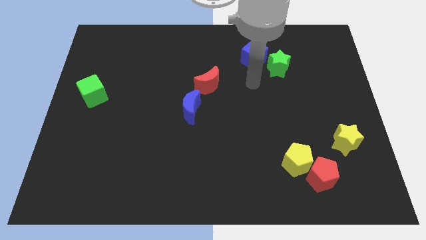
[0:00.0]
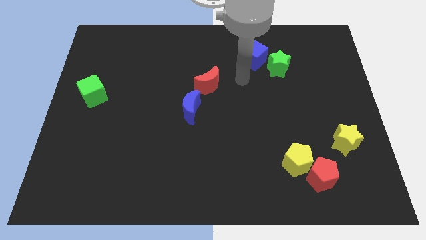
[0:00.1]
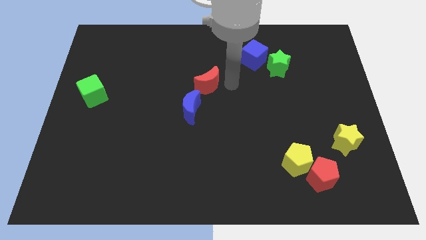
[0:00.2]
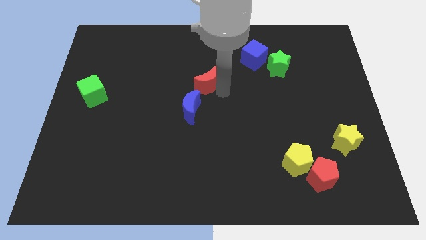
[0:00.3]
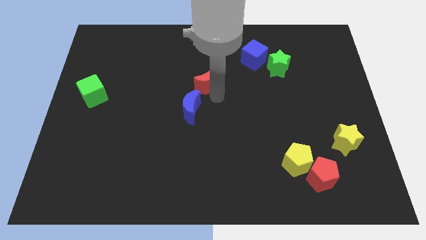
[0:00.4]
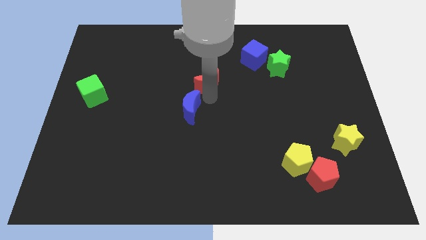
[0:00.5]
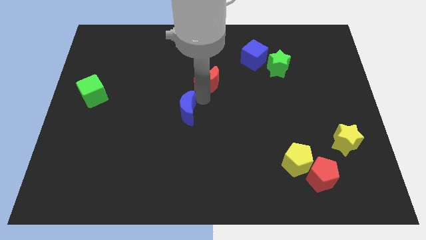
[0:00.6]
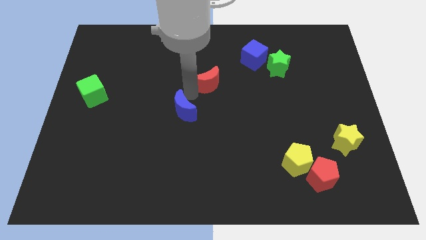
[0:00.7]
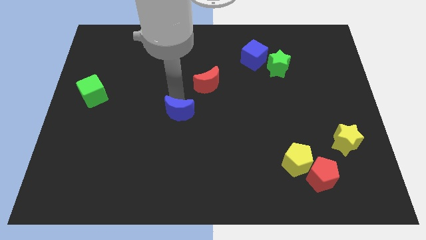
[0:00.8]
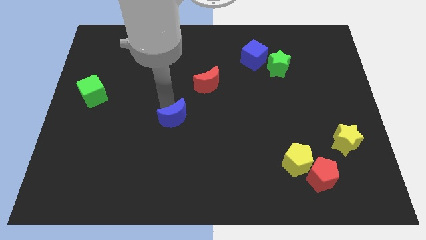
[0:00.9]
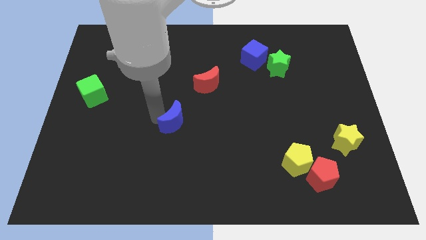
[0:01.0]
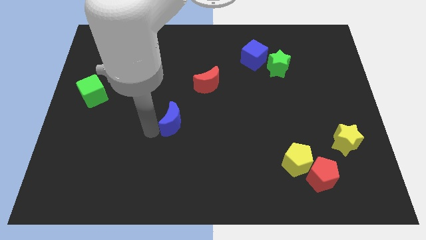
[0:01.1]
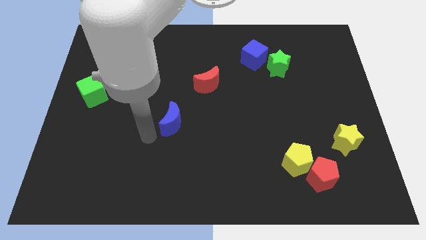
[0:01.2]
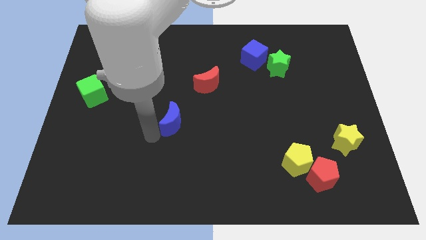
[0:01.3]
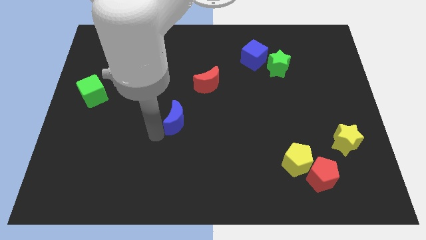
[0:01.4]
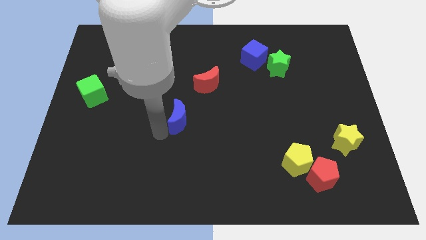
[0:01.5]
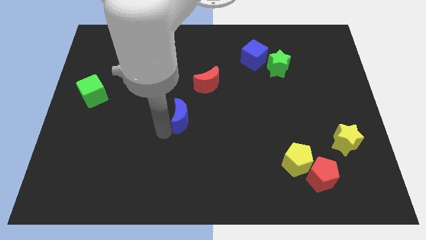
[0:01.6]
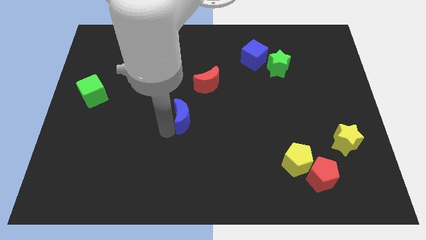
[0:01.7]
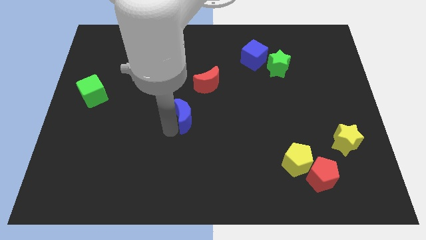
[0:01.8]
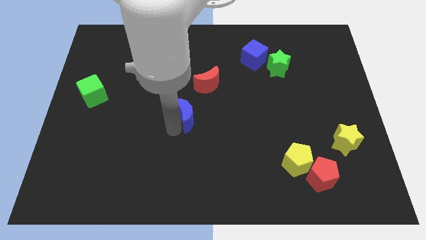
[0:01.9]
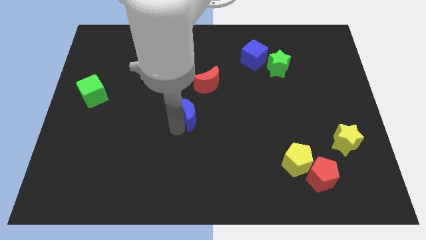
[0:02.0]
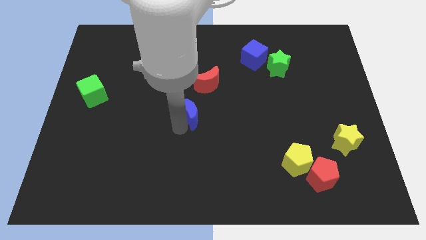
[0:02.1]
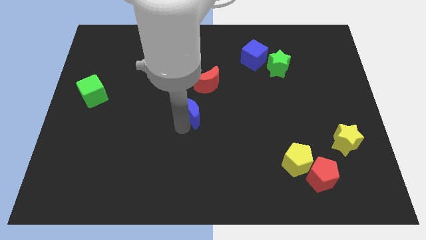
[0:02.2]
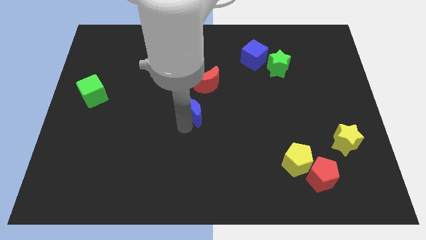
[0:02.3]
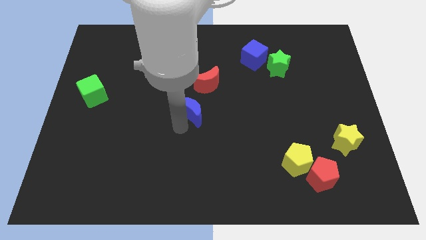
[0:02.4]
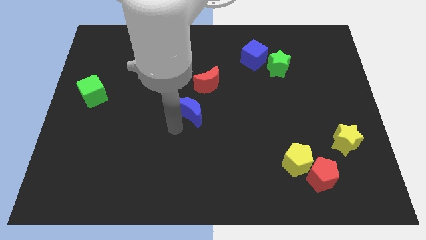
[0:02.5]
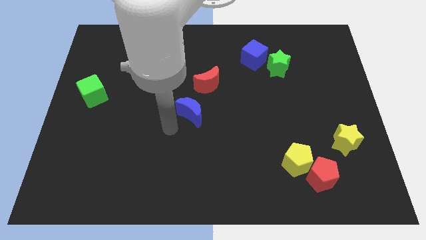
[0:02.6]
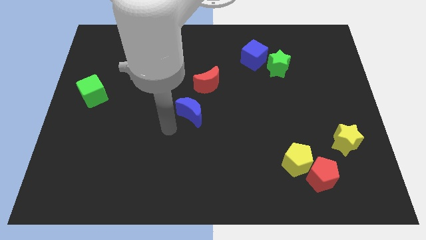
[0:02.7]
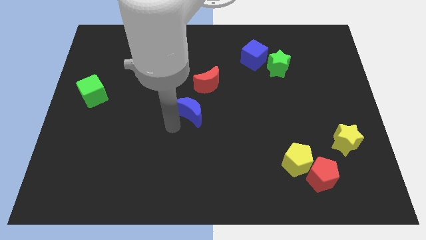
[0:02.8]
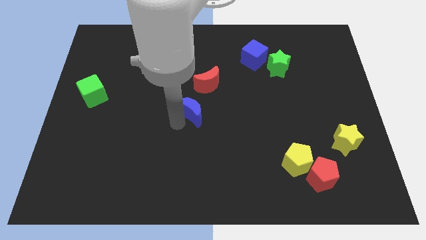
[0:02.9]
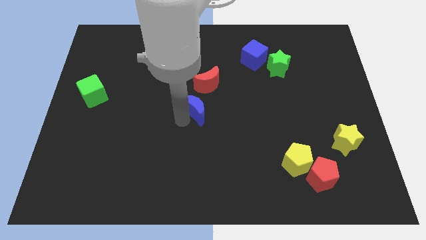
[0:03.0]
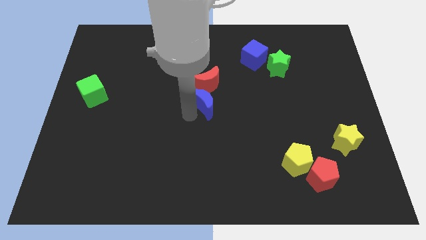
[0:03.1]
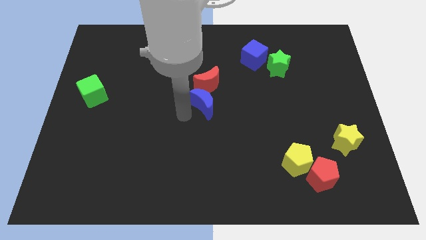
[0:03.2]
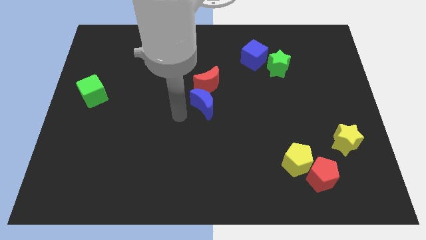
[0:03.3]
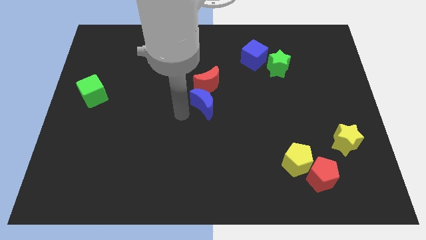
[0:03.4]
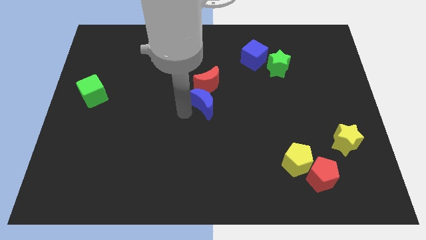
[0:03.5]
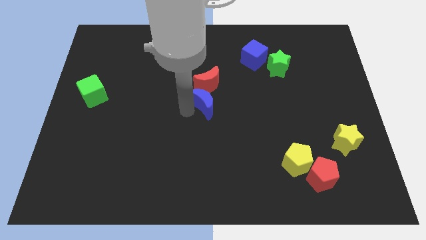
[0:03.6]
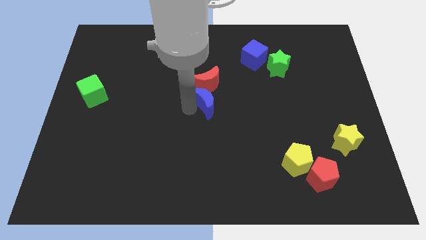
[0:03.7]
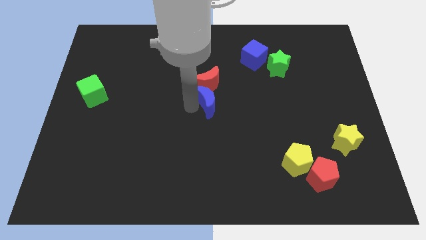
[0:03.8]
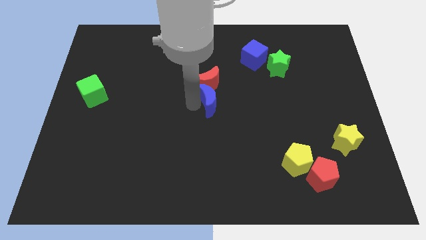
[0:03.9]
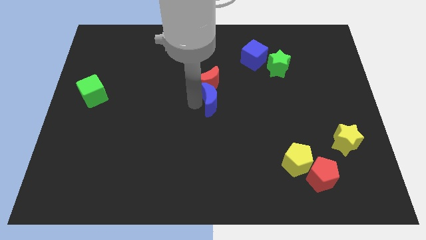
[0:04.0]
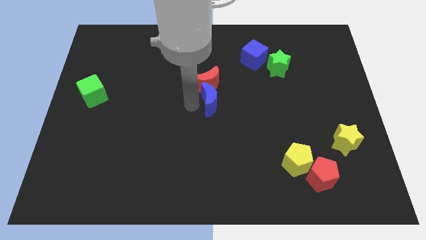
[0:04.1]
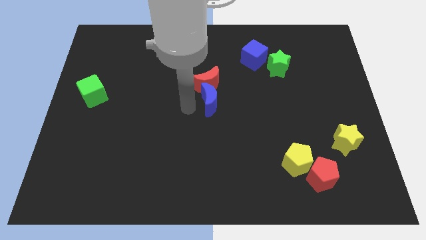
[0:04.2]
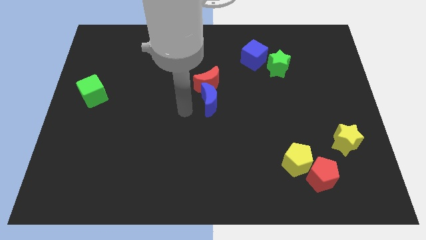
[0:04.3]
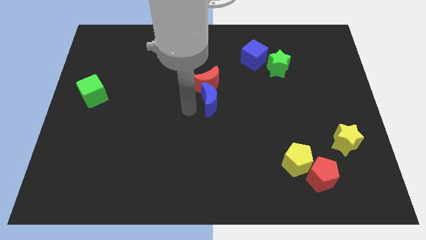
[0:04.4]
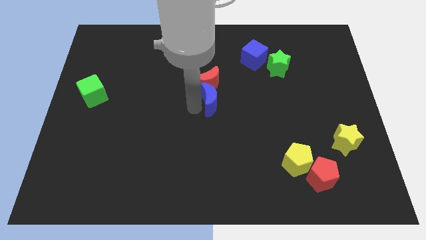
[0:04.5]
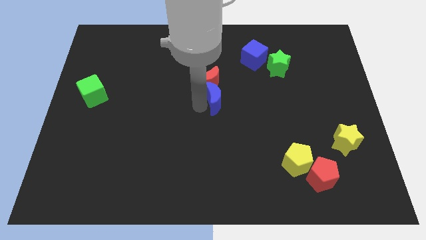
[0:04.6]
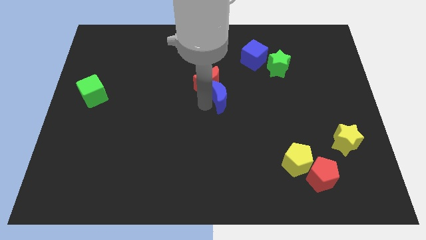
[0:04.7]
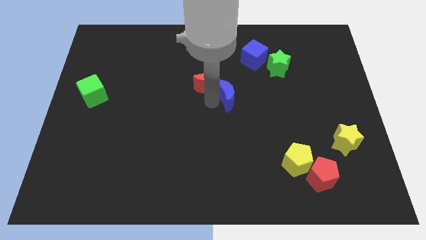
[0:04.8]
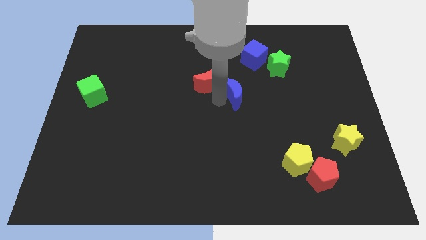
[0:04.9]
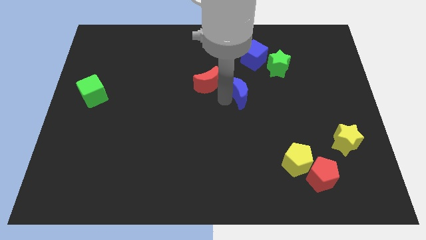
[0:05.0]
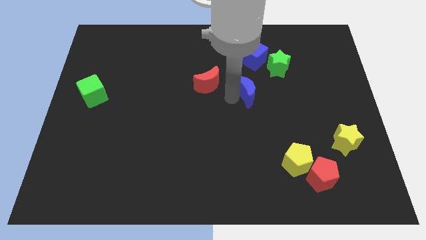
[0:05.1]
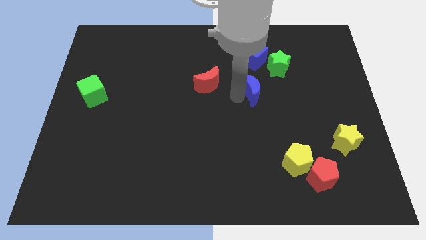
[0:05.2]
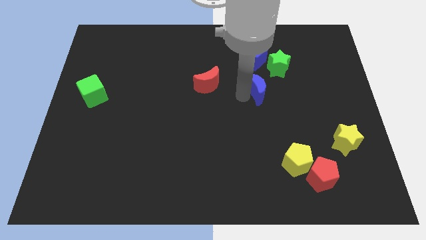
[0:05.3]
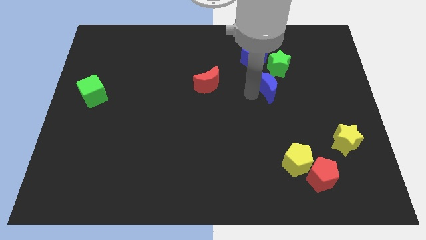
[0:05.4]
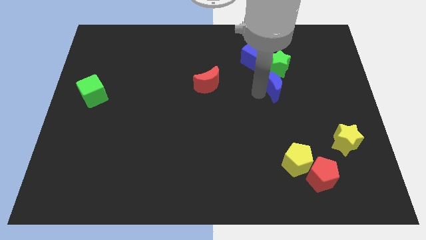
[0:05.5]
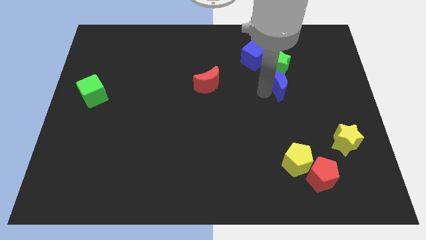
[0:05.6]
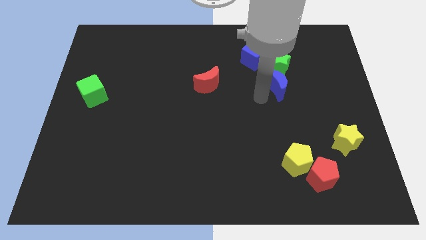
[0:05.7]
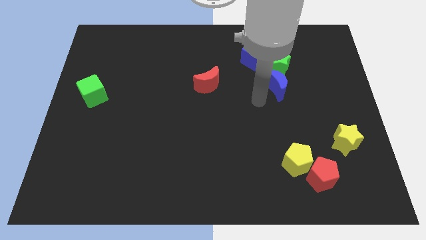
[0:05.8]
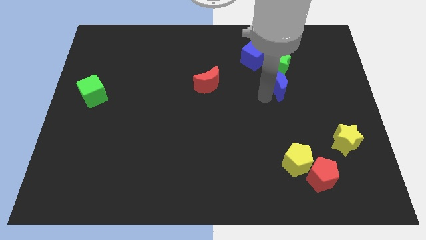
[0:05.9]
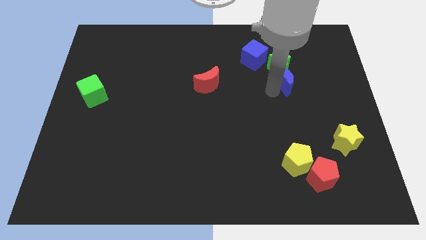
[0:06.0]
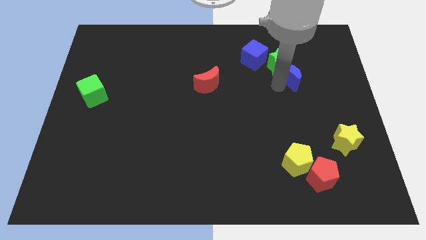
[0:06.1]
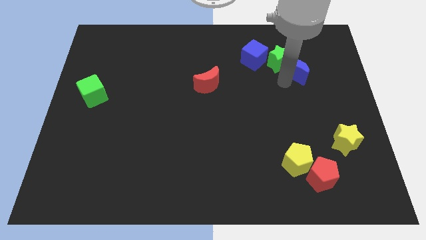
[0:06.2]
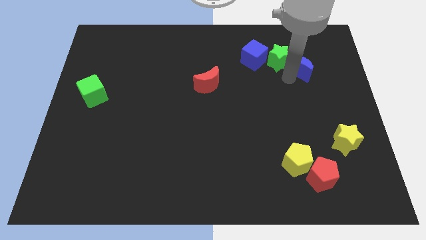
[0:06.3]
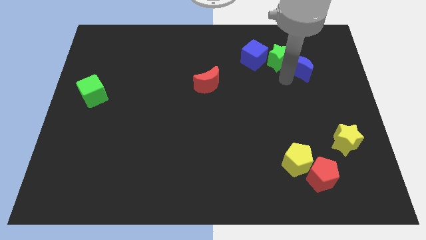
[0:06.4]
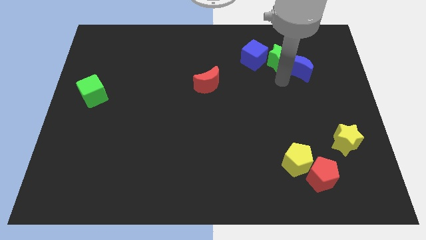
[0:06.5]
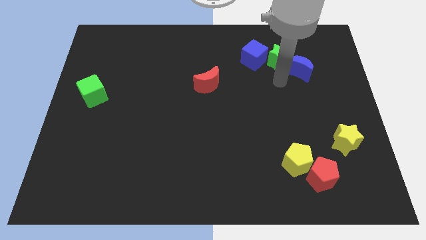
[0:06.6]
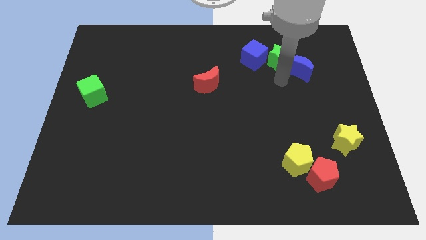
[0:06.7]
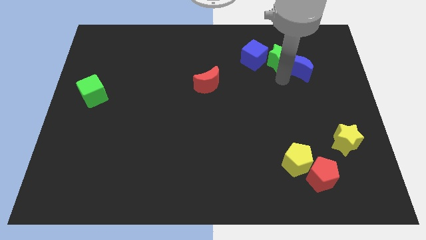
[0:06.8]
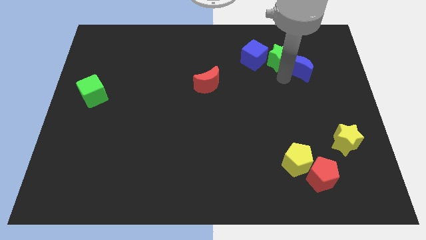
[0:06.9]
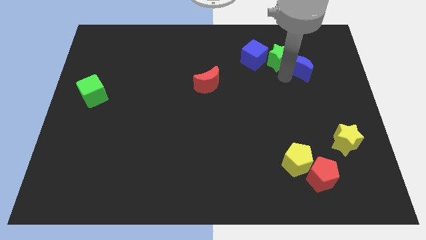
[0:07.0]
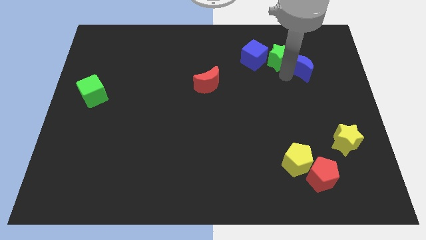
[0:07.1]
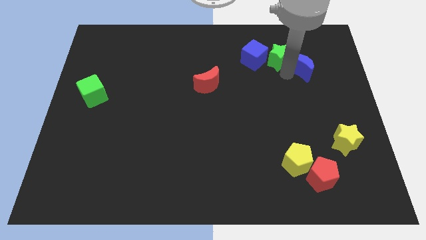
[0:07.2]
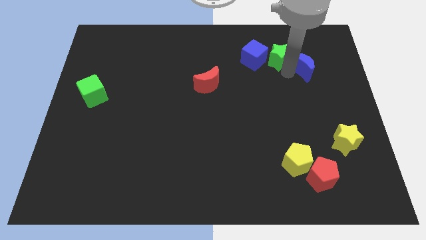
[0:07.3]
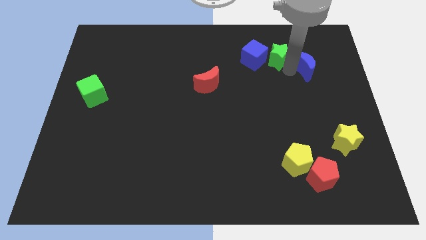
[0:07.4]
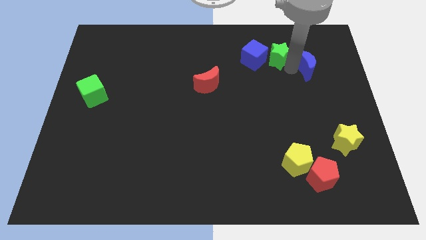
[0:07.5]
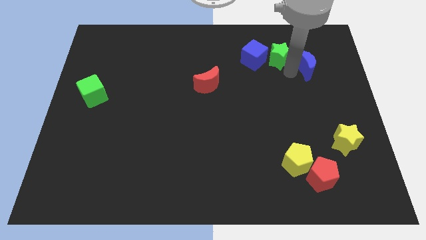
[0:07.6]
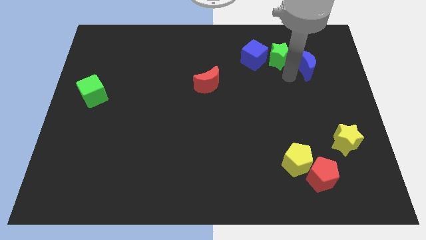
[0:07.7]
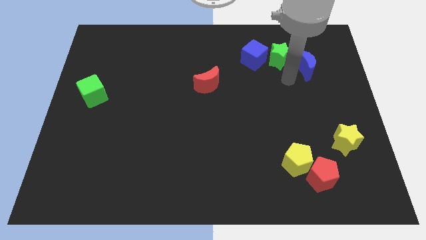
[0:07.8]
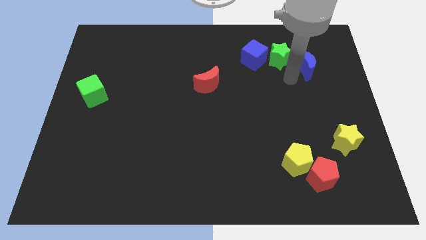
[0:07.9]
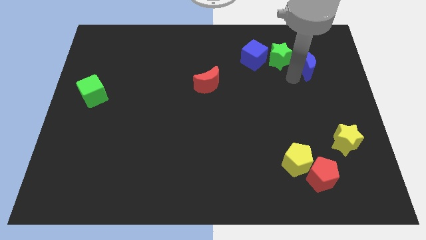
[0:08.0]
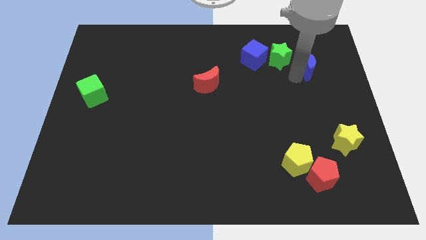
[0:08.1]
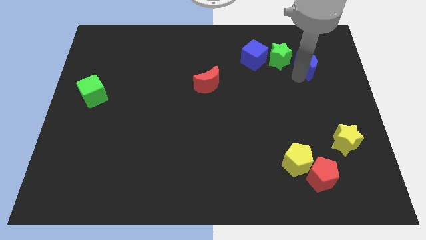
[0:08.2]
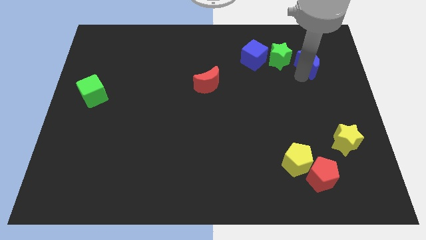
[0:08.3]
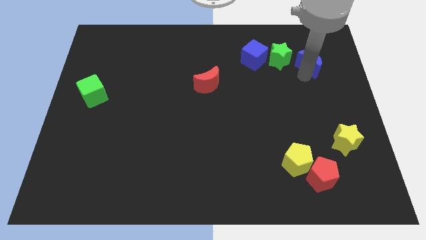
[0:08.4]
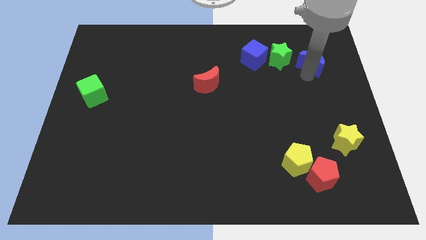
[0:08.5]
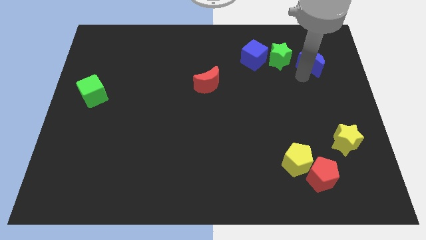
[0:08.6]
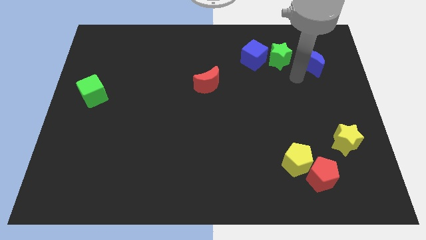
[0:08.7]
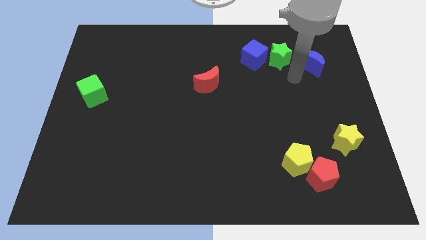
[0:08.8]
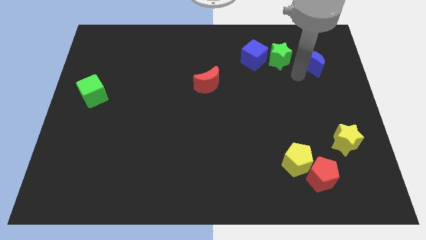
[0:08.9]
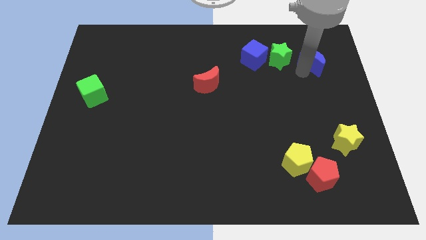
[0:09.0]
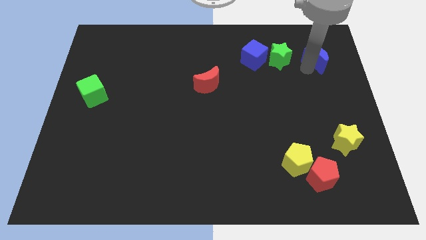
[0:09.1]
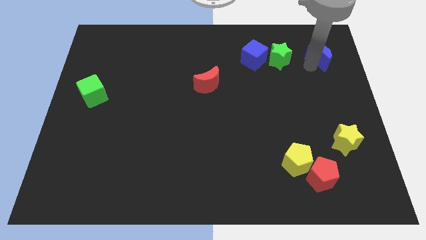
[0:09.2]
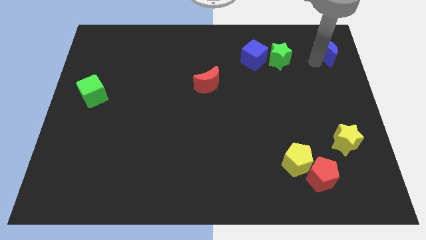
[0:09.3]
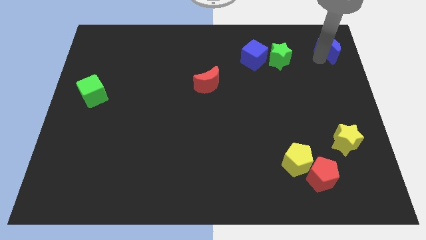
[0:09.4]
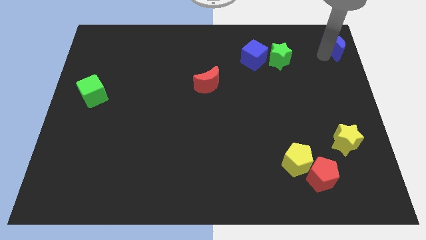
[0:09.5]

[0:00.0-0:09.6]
put the blue moon to the top right
